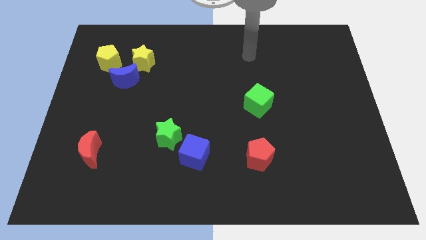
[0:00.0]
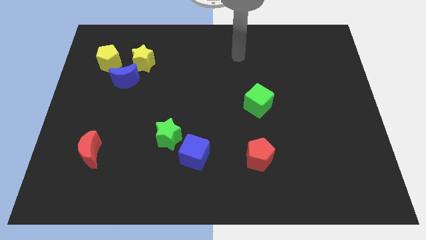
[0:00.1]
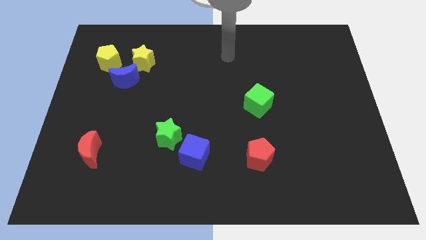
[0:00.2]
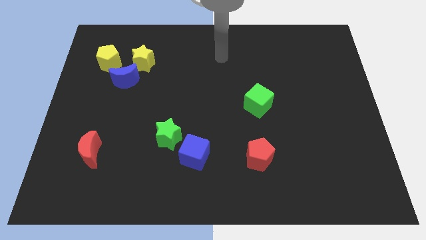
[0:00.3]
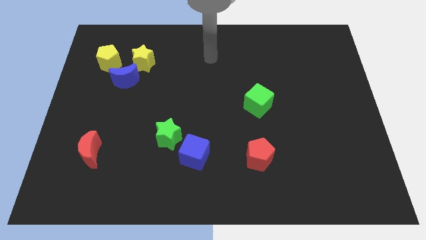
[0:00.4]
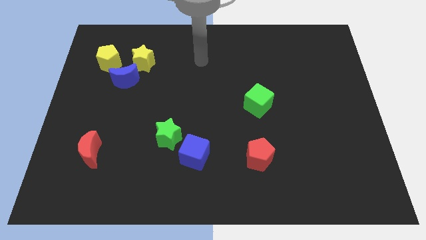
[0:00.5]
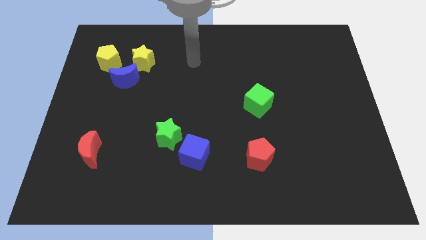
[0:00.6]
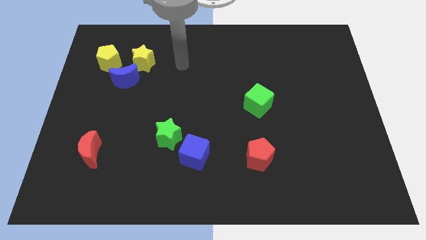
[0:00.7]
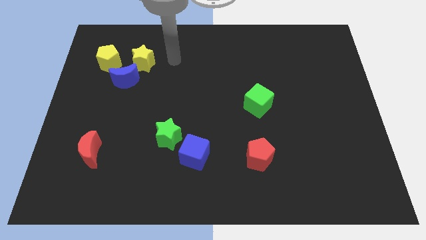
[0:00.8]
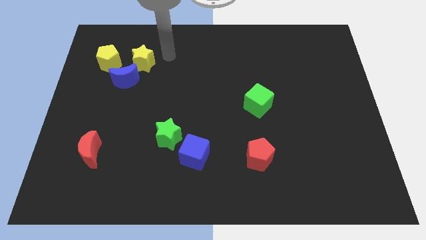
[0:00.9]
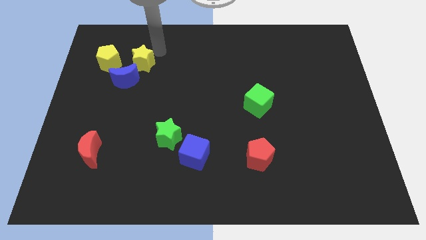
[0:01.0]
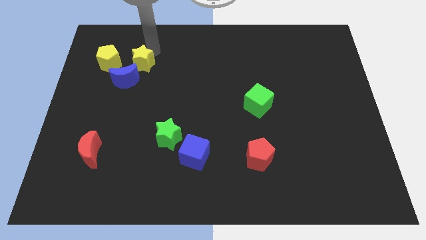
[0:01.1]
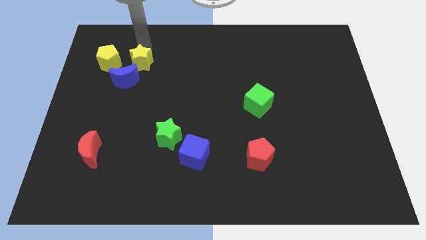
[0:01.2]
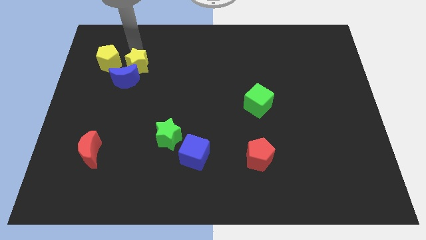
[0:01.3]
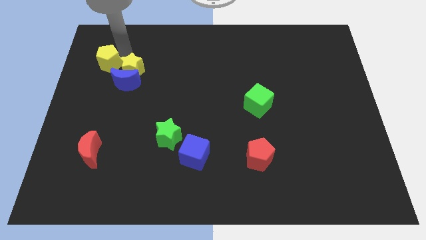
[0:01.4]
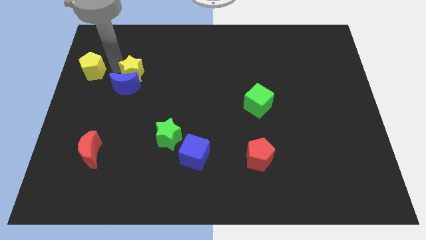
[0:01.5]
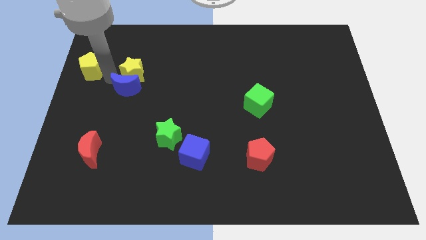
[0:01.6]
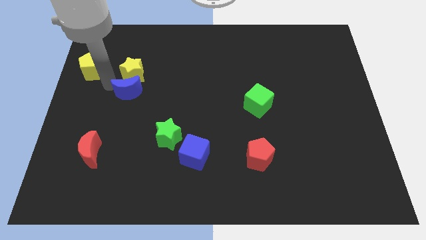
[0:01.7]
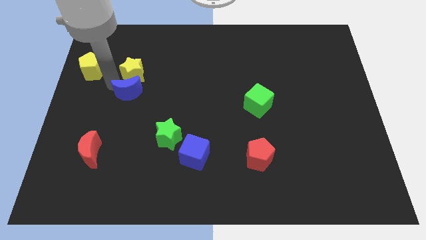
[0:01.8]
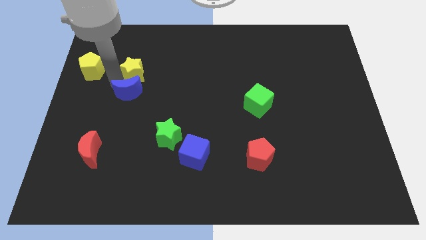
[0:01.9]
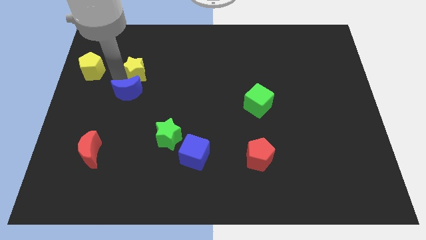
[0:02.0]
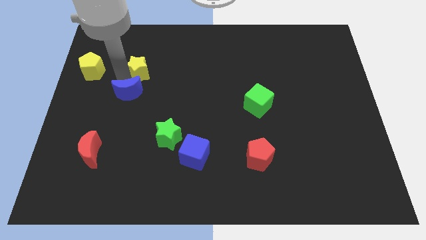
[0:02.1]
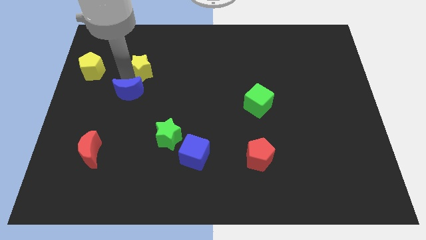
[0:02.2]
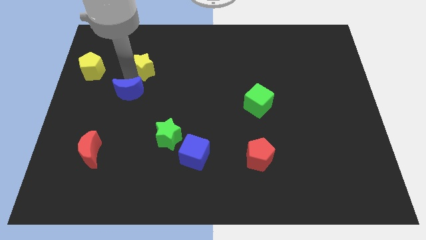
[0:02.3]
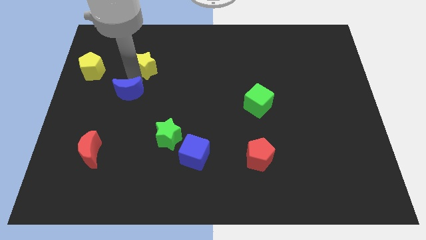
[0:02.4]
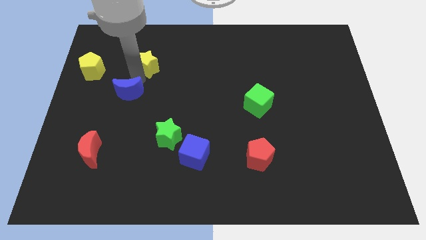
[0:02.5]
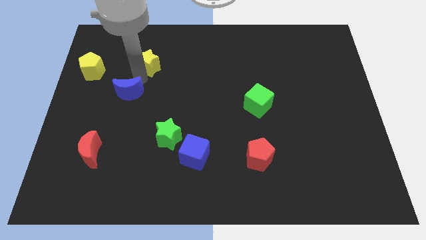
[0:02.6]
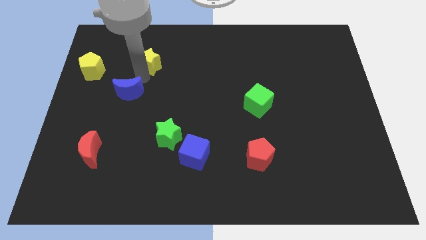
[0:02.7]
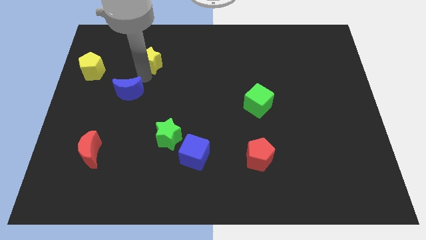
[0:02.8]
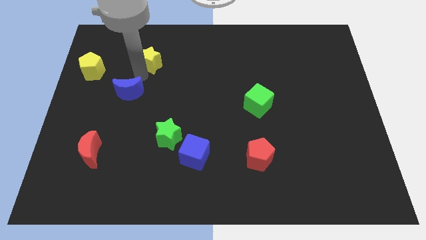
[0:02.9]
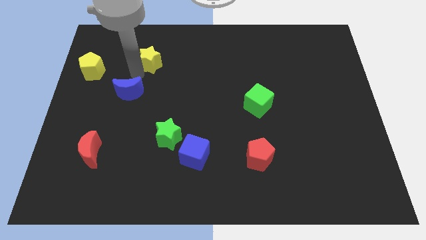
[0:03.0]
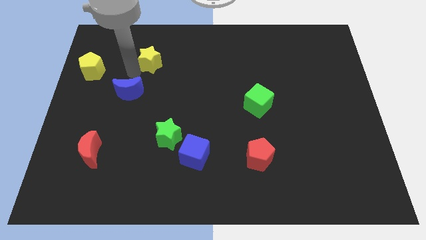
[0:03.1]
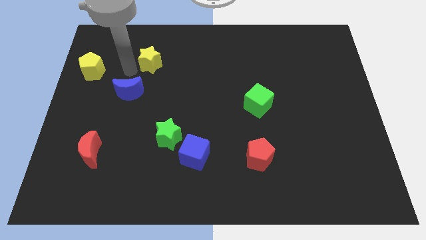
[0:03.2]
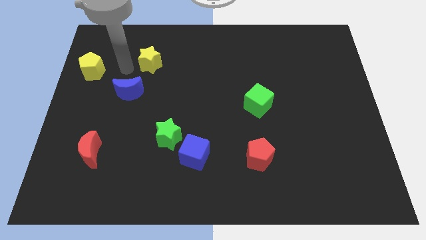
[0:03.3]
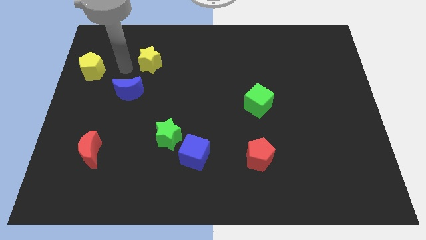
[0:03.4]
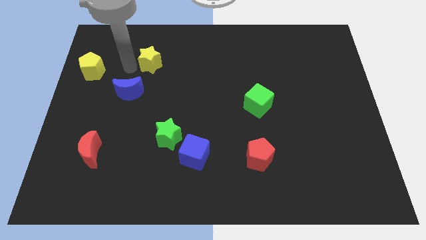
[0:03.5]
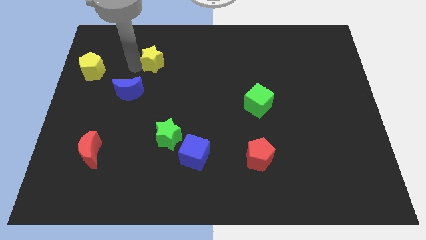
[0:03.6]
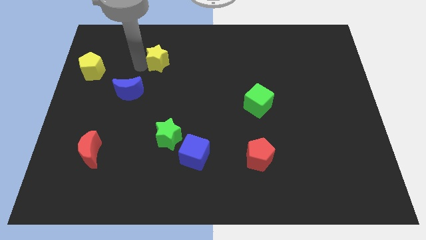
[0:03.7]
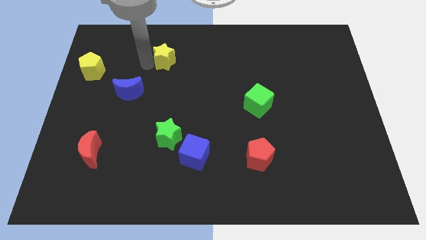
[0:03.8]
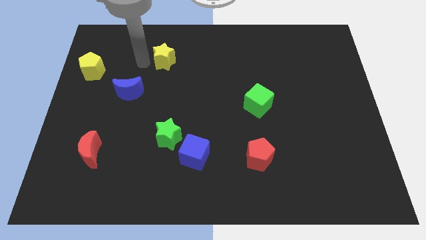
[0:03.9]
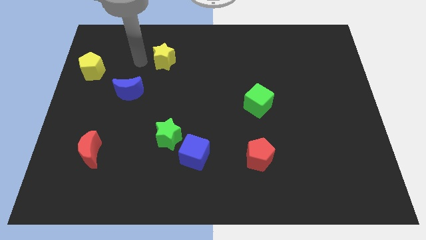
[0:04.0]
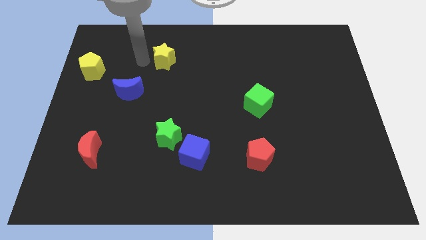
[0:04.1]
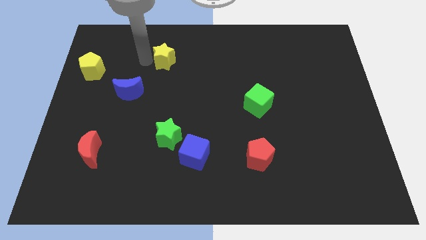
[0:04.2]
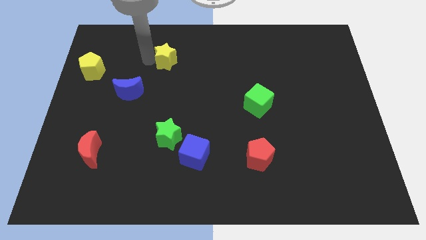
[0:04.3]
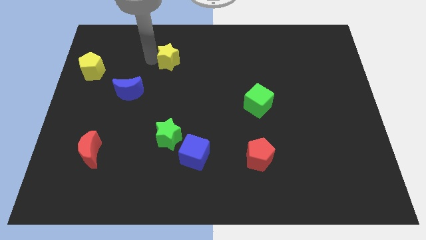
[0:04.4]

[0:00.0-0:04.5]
move the yellow star to the right slightly

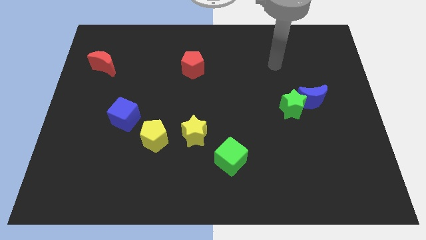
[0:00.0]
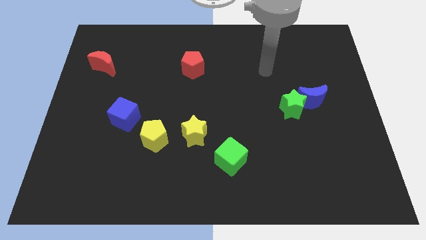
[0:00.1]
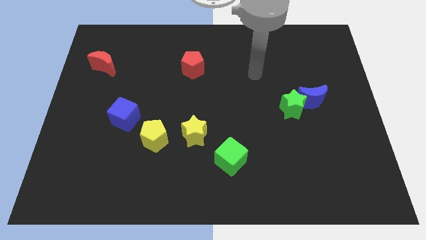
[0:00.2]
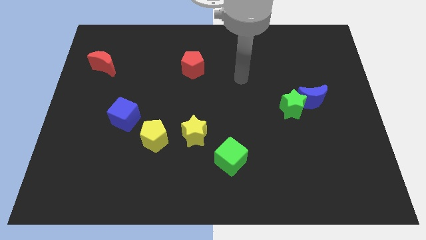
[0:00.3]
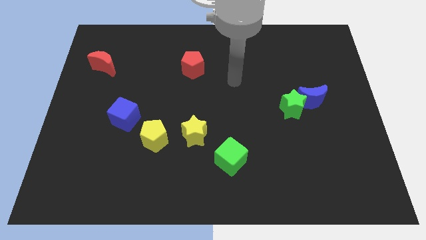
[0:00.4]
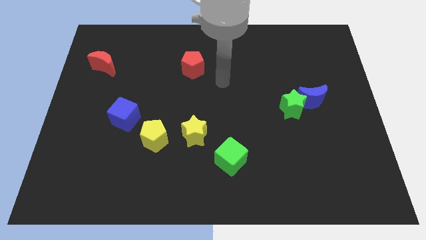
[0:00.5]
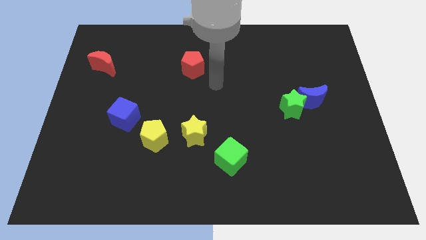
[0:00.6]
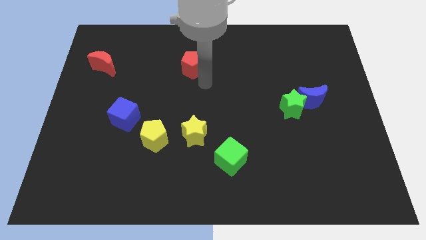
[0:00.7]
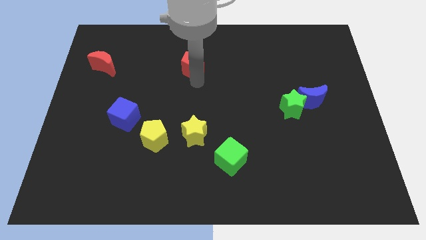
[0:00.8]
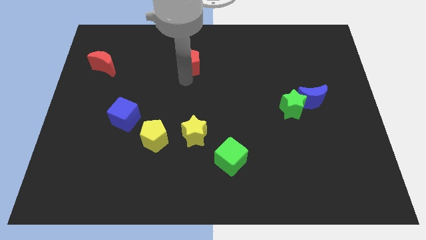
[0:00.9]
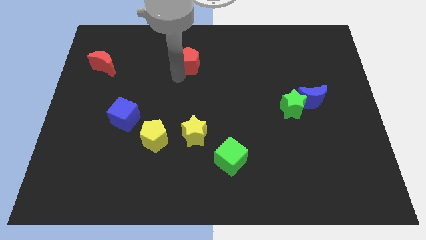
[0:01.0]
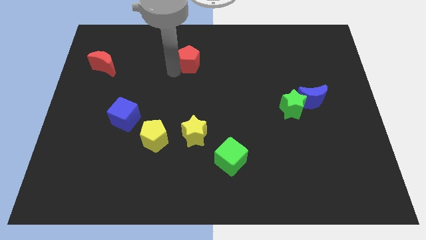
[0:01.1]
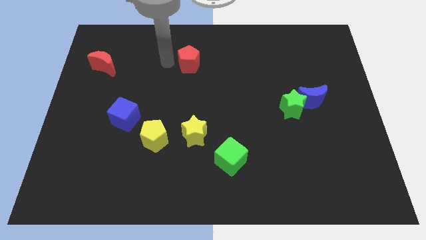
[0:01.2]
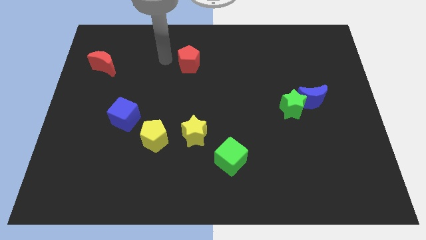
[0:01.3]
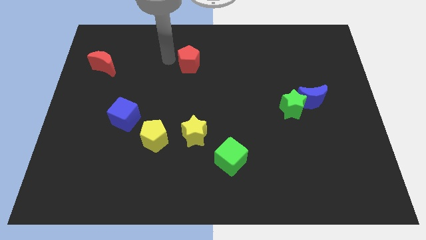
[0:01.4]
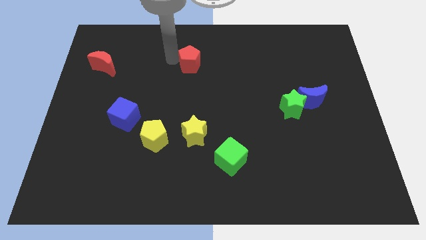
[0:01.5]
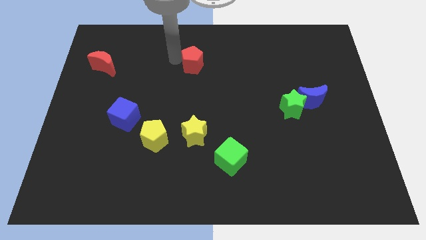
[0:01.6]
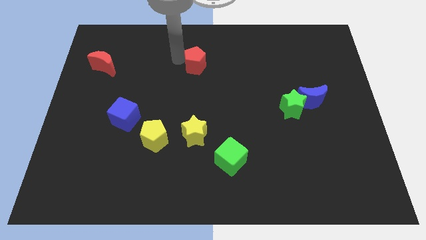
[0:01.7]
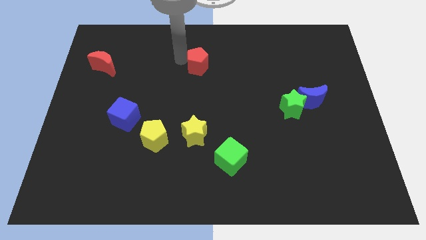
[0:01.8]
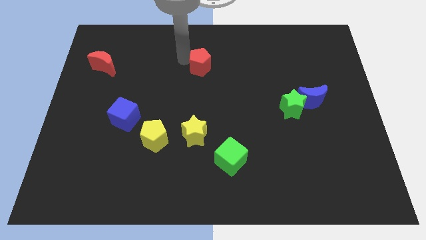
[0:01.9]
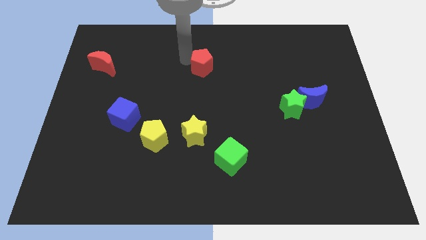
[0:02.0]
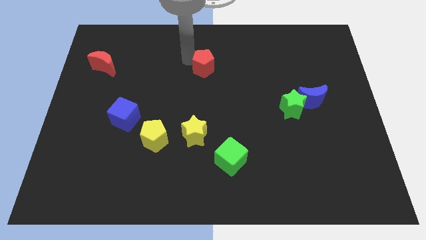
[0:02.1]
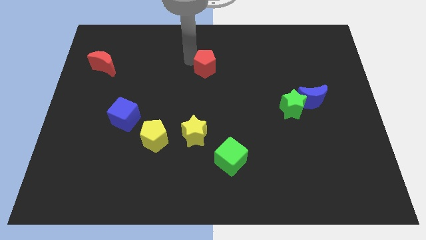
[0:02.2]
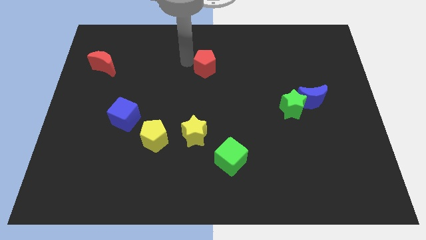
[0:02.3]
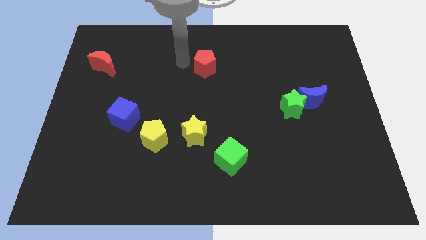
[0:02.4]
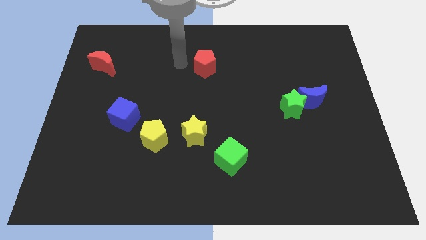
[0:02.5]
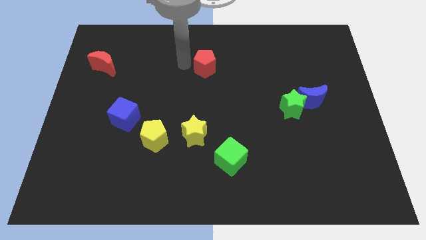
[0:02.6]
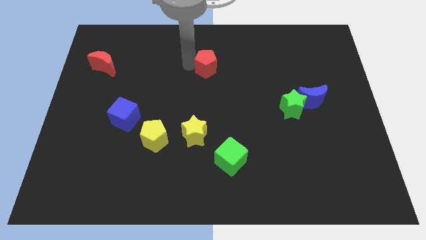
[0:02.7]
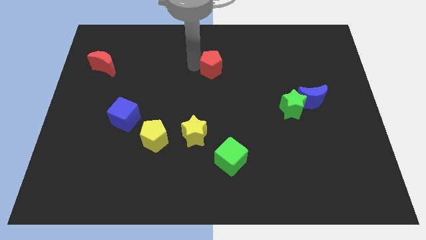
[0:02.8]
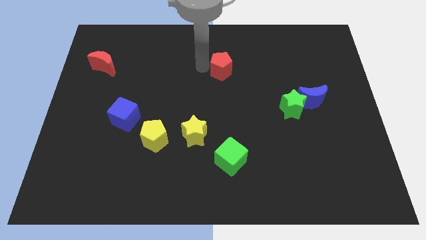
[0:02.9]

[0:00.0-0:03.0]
slightly push the red pentagon right

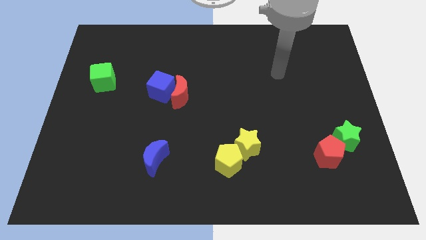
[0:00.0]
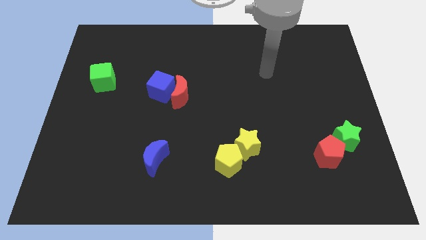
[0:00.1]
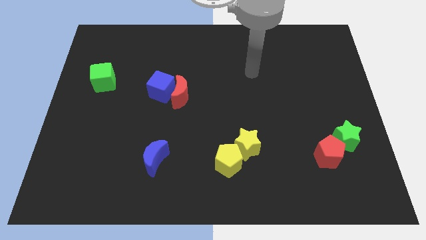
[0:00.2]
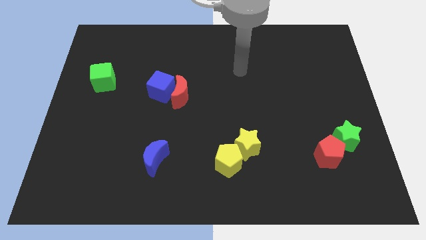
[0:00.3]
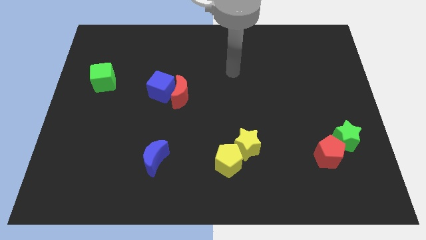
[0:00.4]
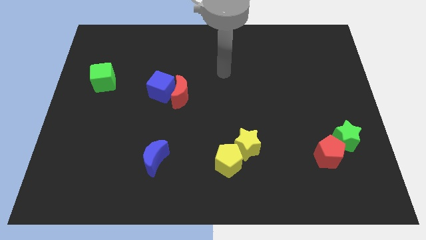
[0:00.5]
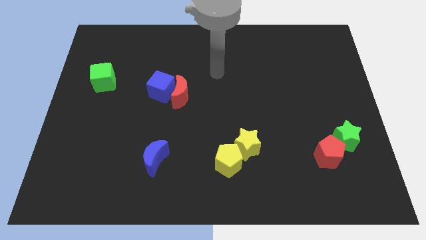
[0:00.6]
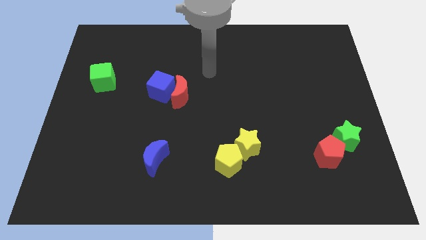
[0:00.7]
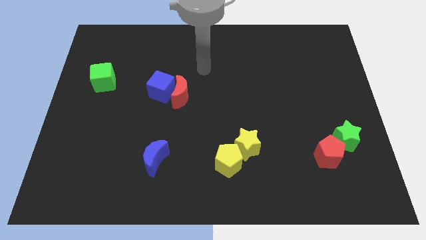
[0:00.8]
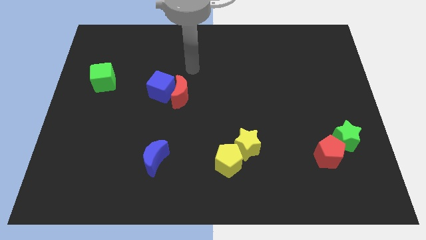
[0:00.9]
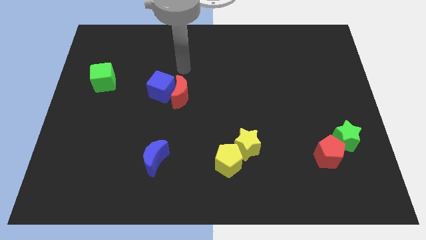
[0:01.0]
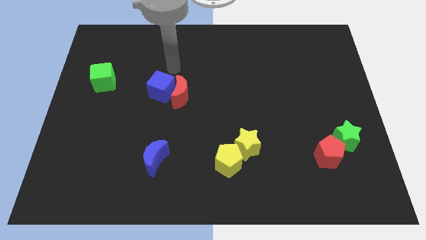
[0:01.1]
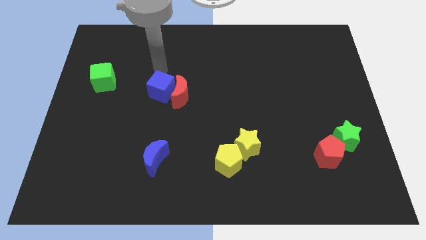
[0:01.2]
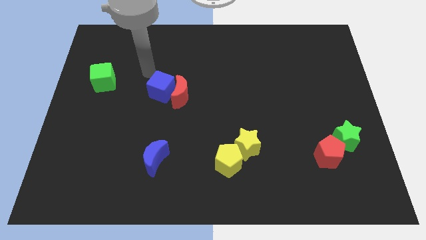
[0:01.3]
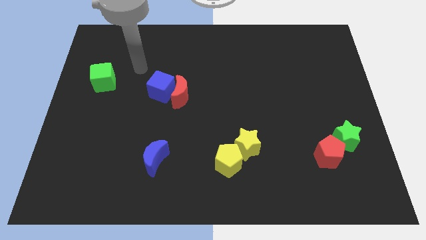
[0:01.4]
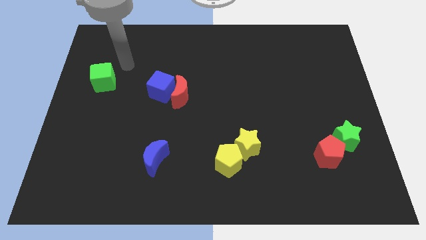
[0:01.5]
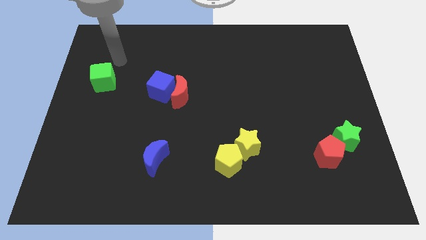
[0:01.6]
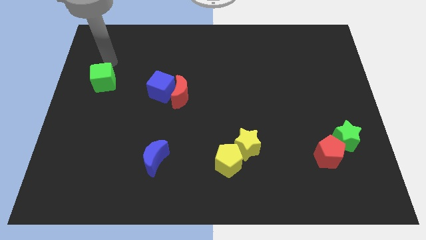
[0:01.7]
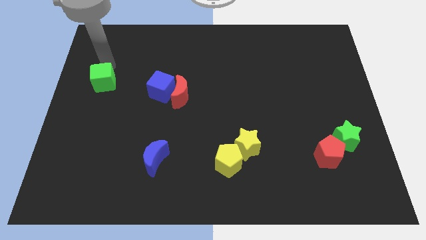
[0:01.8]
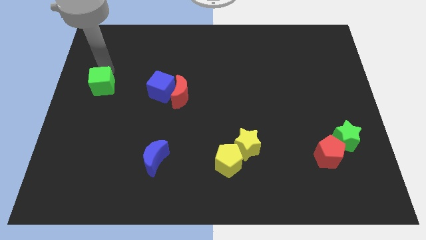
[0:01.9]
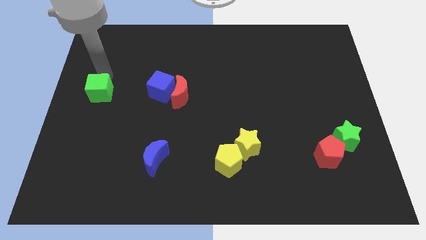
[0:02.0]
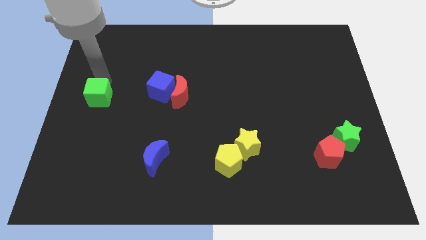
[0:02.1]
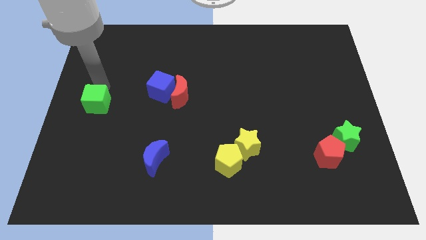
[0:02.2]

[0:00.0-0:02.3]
push the green cube downwards somewhat
